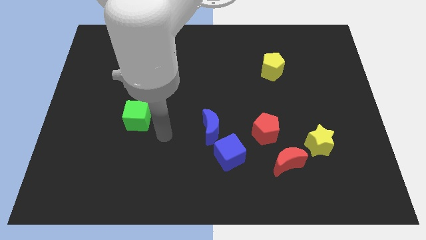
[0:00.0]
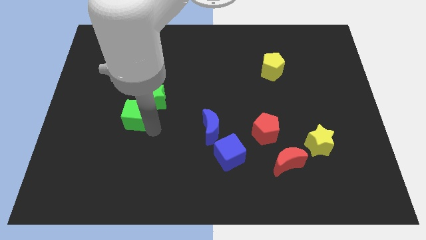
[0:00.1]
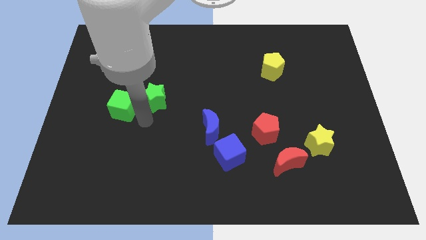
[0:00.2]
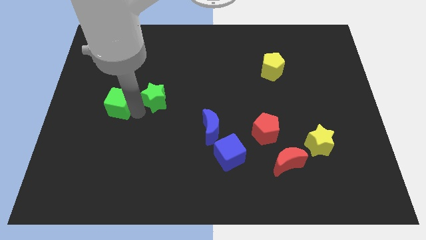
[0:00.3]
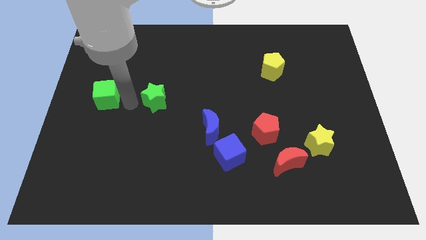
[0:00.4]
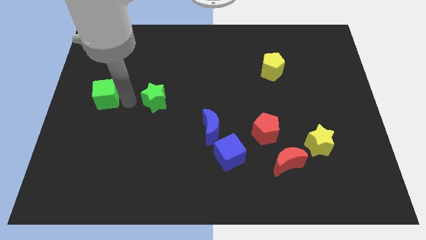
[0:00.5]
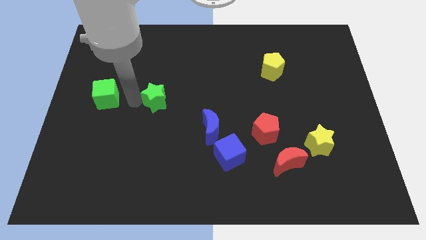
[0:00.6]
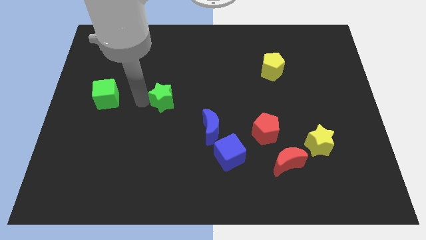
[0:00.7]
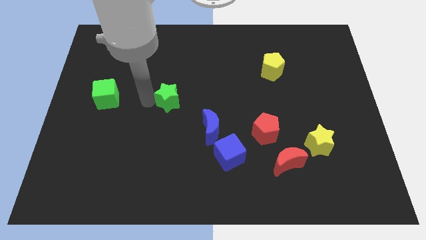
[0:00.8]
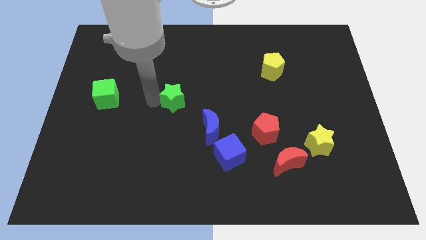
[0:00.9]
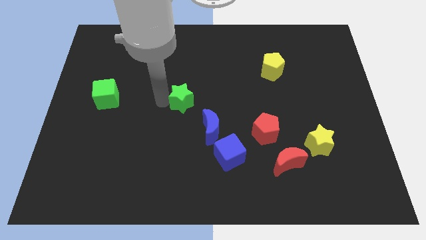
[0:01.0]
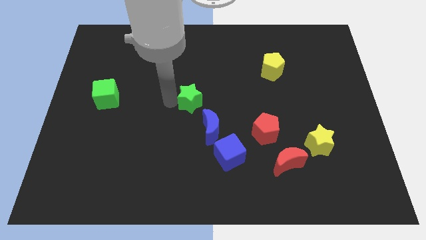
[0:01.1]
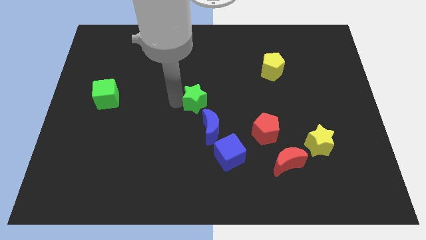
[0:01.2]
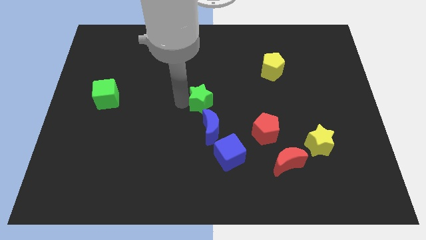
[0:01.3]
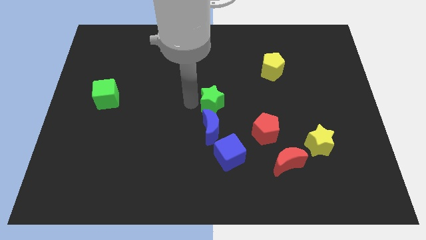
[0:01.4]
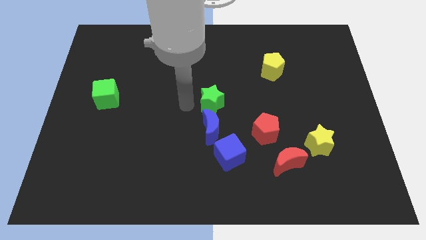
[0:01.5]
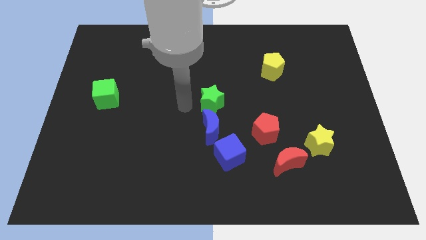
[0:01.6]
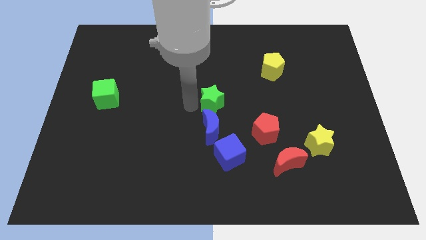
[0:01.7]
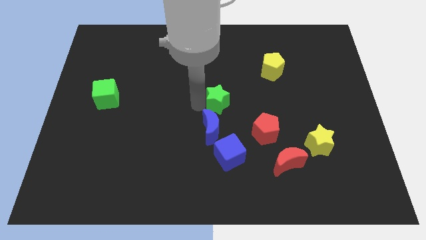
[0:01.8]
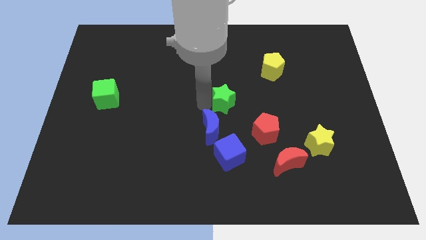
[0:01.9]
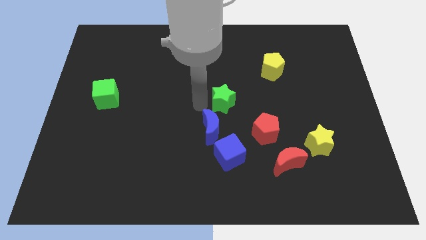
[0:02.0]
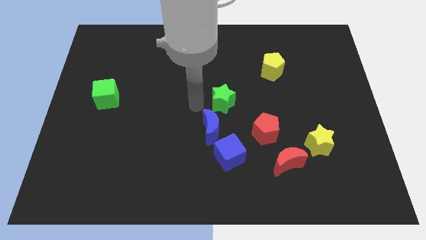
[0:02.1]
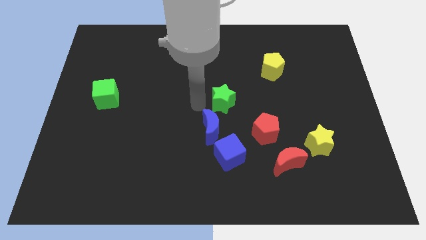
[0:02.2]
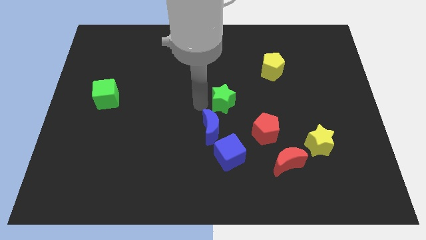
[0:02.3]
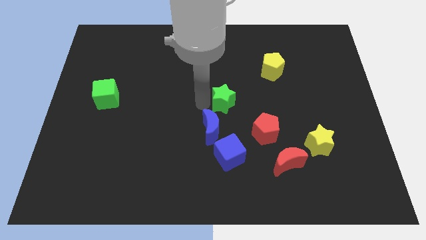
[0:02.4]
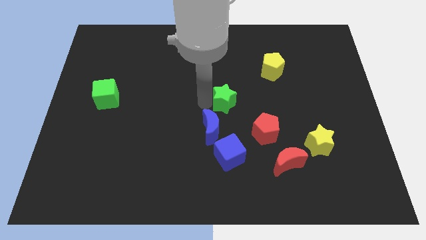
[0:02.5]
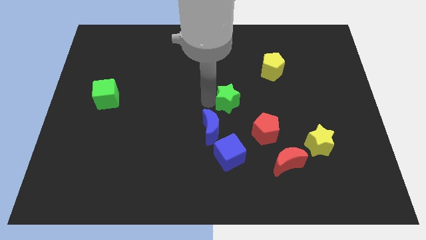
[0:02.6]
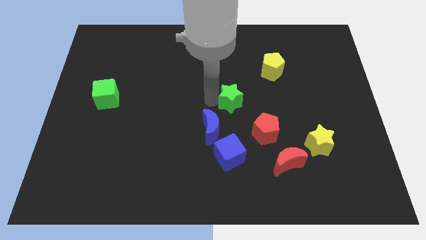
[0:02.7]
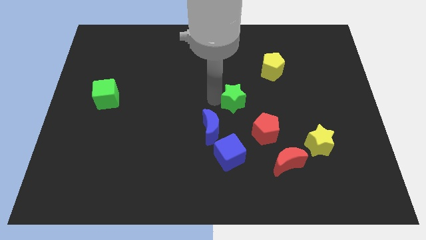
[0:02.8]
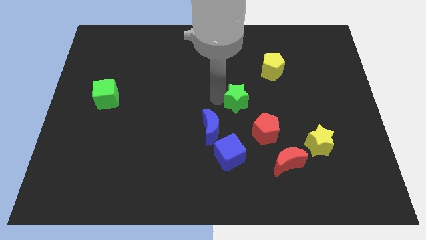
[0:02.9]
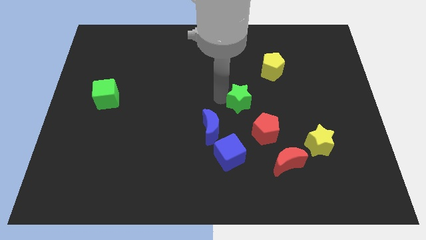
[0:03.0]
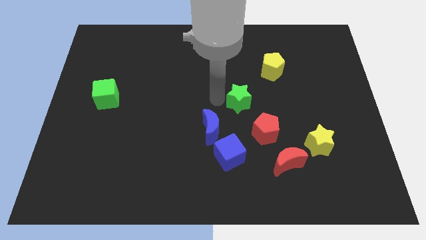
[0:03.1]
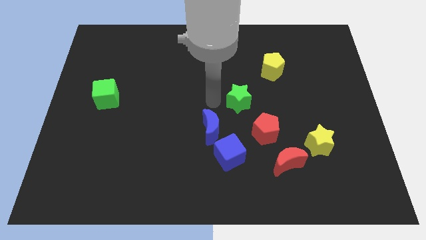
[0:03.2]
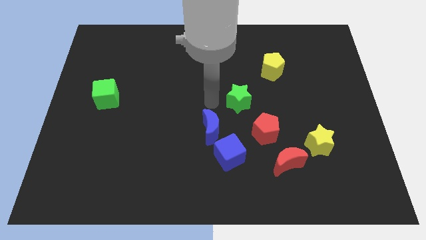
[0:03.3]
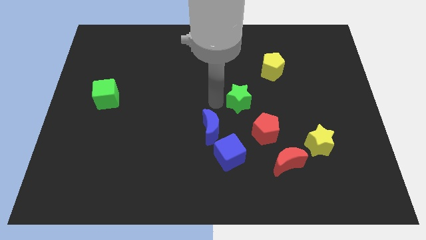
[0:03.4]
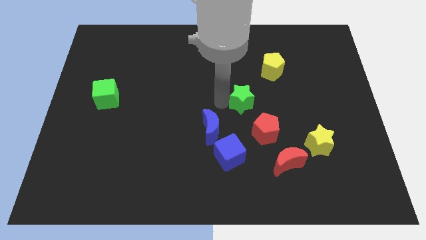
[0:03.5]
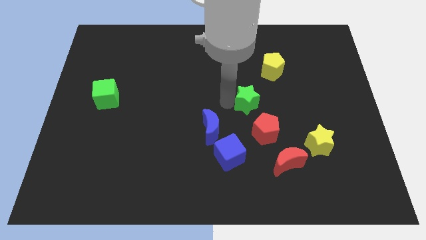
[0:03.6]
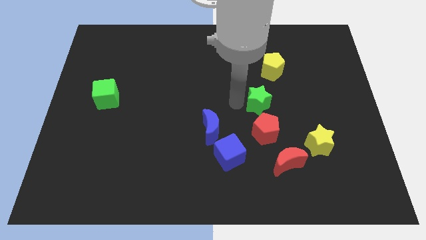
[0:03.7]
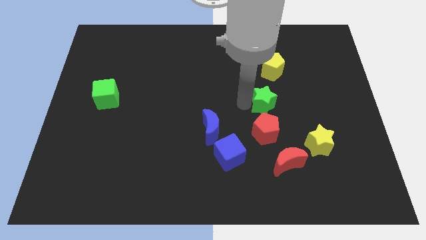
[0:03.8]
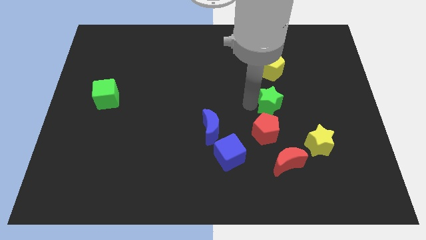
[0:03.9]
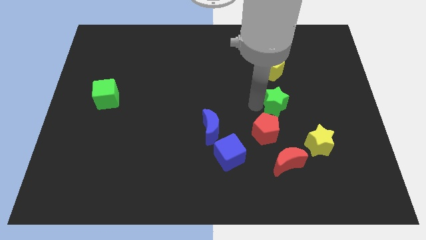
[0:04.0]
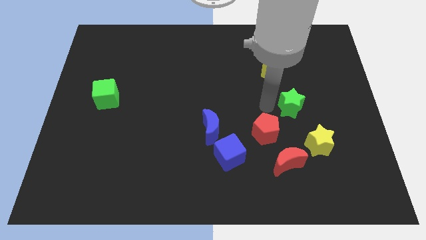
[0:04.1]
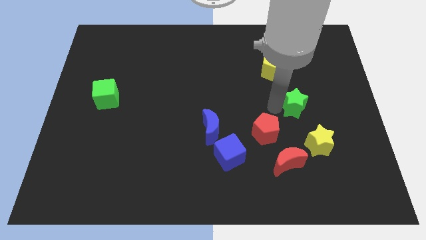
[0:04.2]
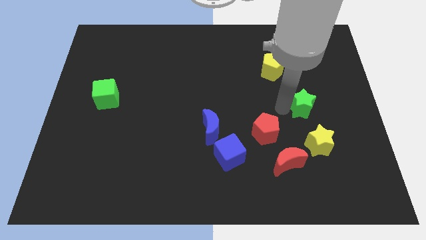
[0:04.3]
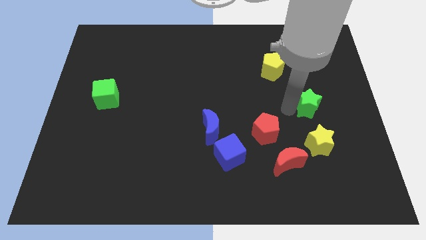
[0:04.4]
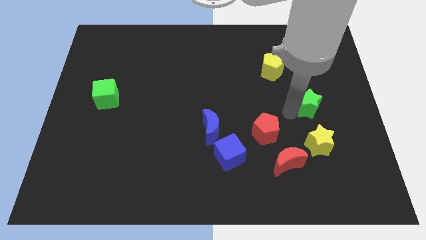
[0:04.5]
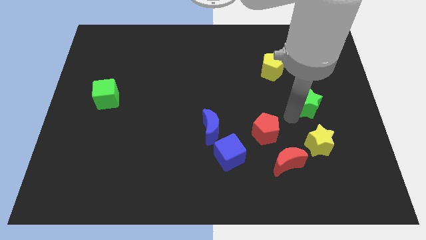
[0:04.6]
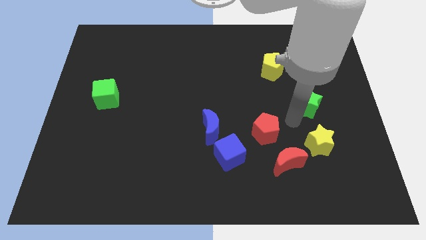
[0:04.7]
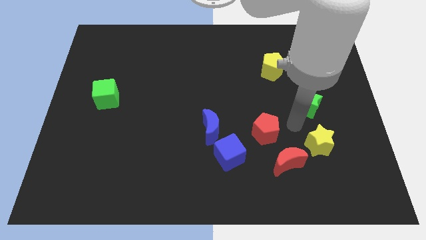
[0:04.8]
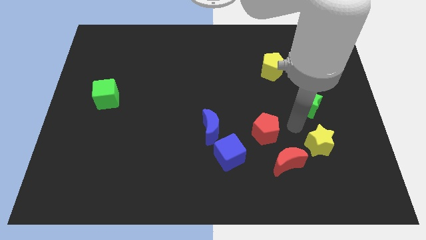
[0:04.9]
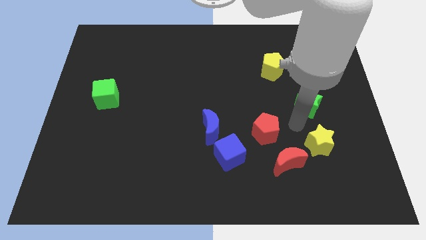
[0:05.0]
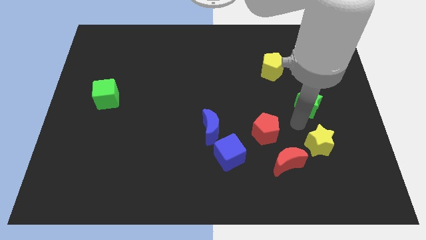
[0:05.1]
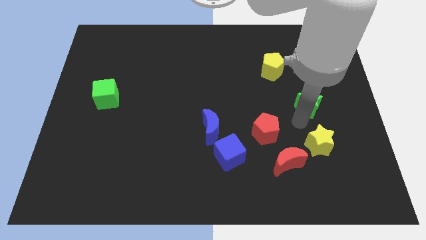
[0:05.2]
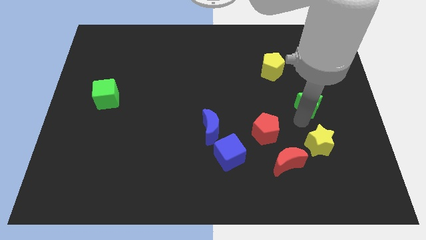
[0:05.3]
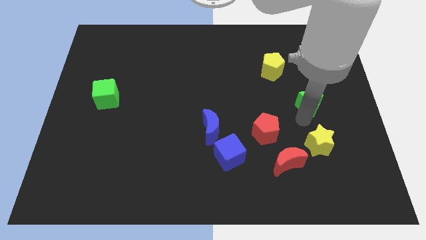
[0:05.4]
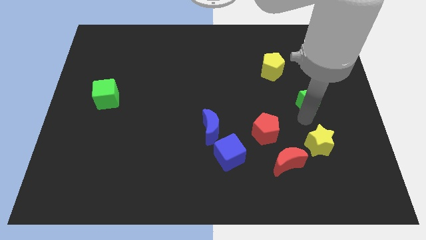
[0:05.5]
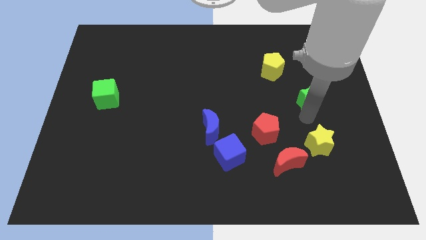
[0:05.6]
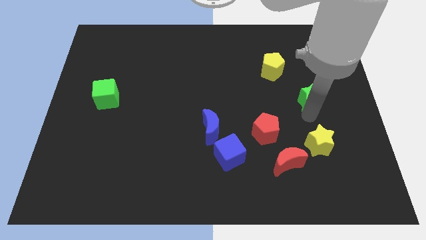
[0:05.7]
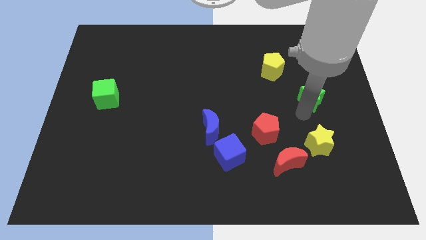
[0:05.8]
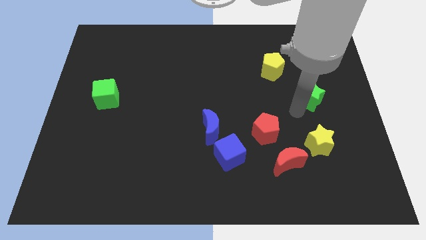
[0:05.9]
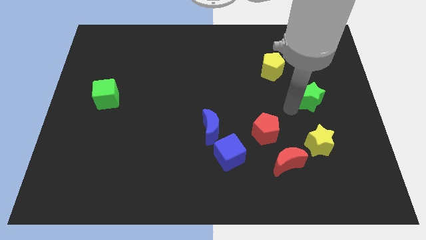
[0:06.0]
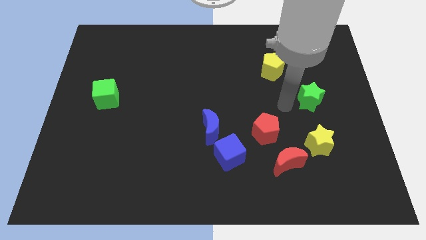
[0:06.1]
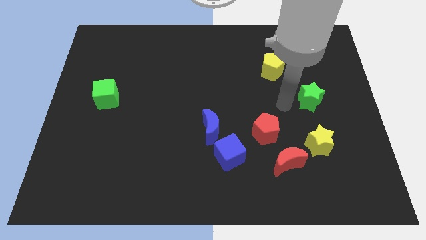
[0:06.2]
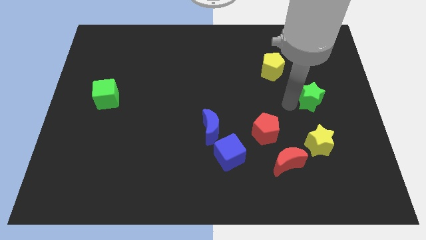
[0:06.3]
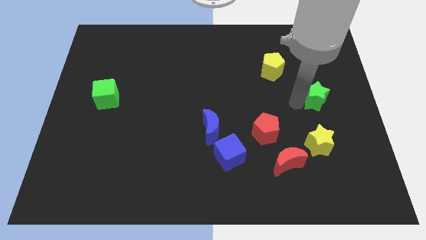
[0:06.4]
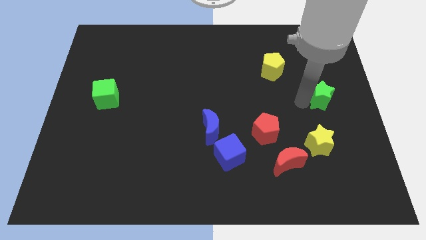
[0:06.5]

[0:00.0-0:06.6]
move the green star to the center right

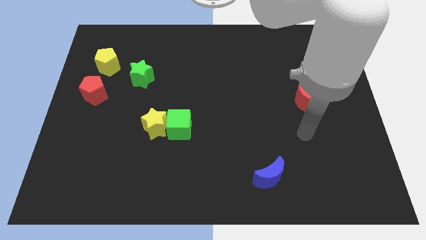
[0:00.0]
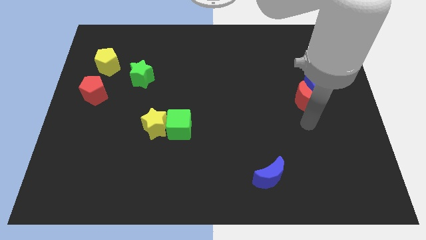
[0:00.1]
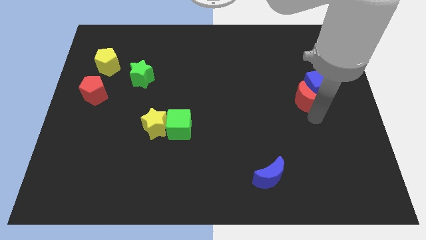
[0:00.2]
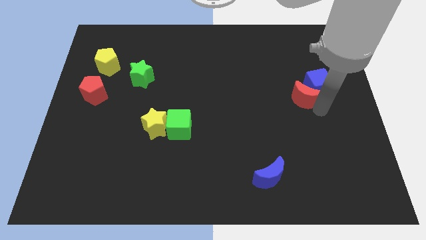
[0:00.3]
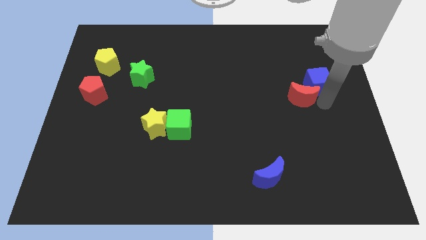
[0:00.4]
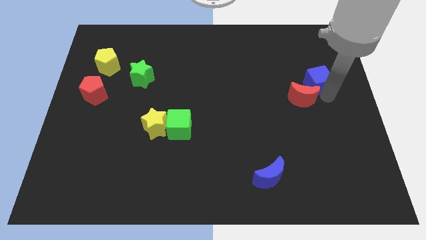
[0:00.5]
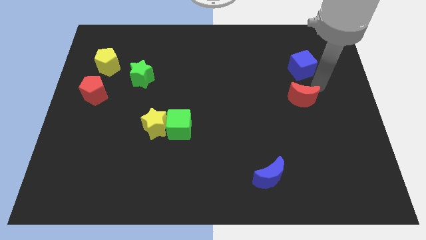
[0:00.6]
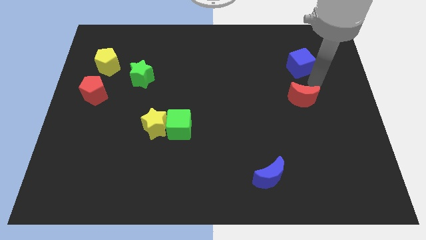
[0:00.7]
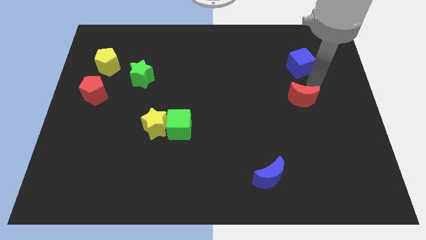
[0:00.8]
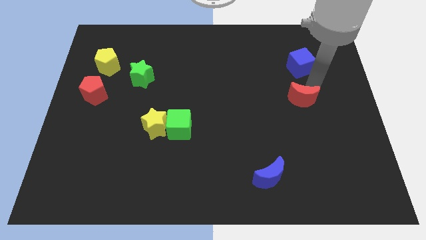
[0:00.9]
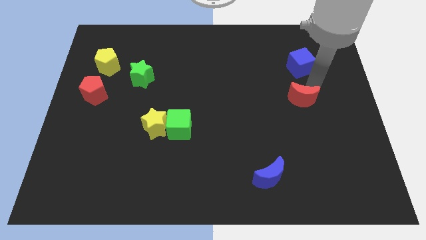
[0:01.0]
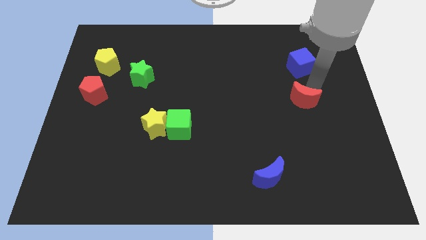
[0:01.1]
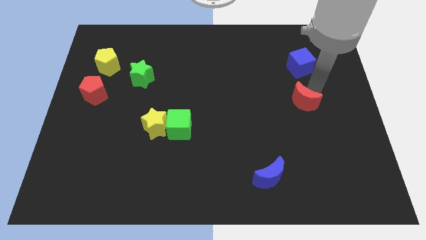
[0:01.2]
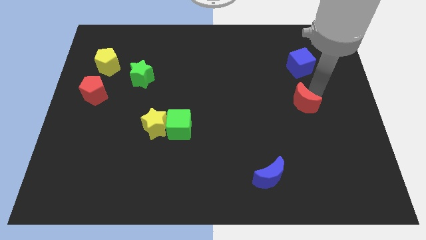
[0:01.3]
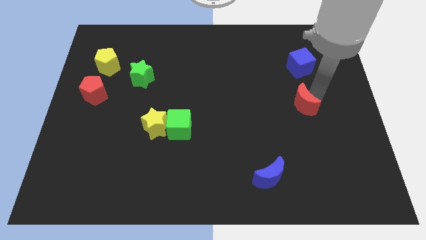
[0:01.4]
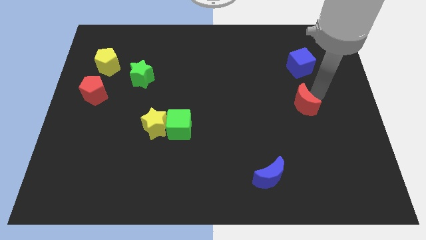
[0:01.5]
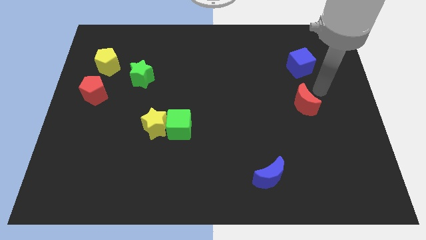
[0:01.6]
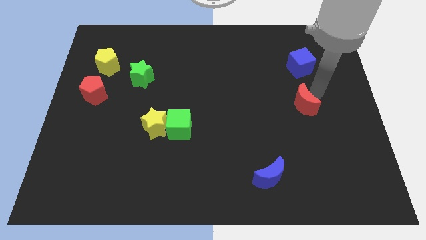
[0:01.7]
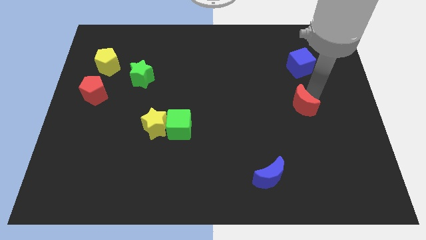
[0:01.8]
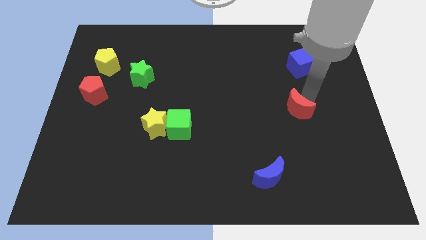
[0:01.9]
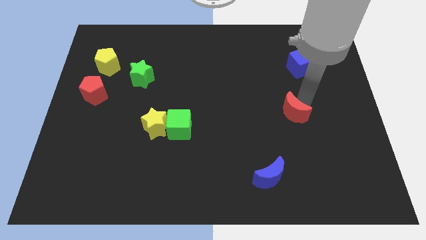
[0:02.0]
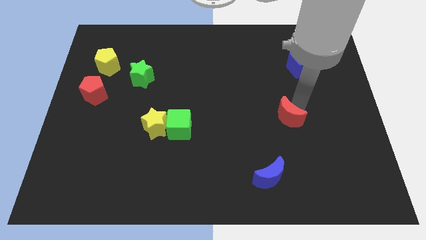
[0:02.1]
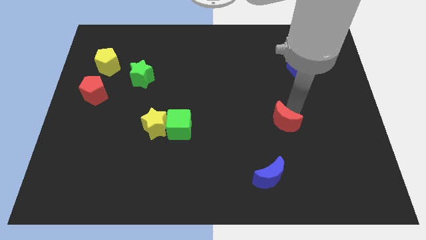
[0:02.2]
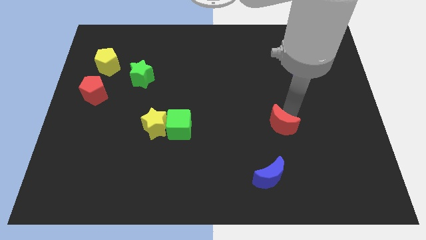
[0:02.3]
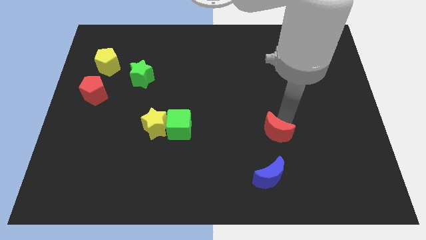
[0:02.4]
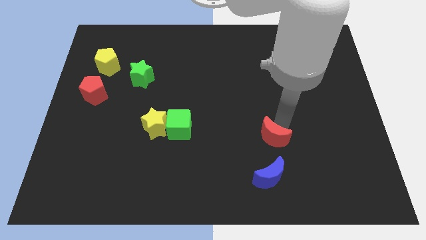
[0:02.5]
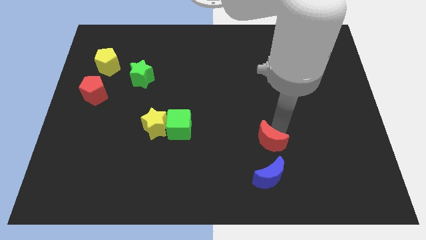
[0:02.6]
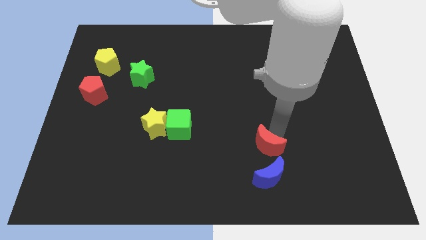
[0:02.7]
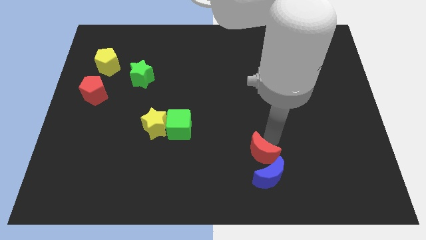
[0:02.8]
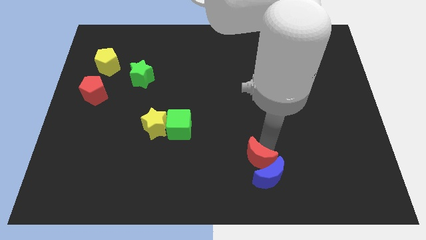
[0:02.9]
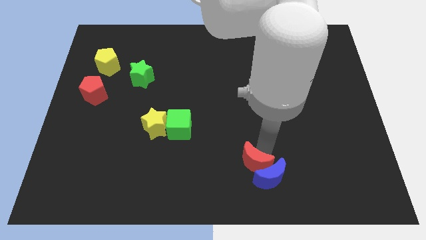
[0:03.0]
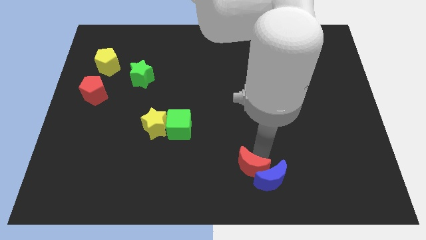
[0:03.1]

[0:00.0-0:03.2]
move the red moon to the bottom side
